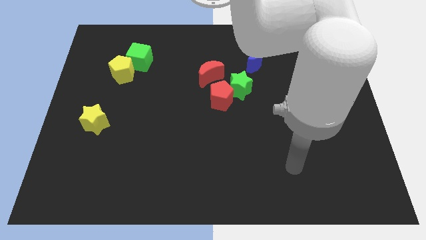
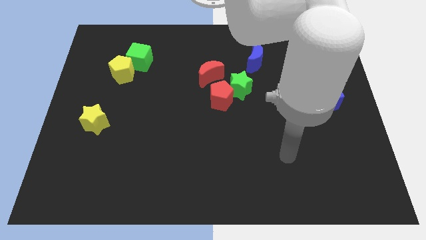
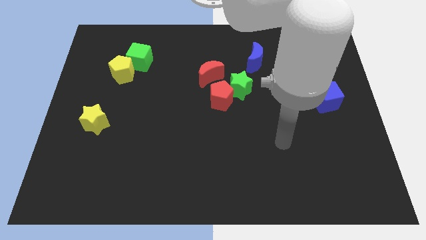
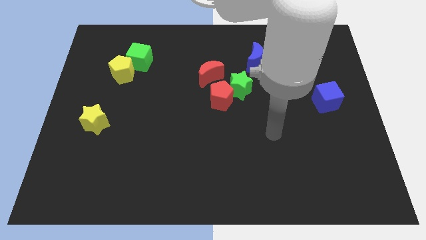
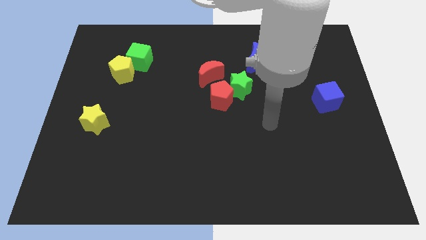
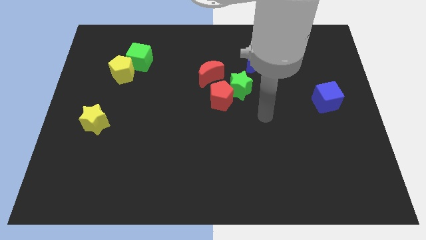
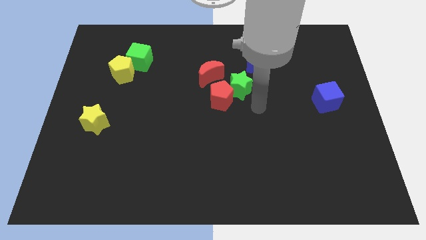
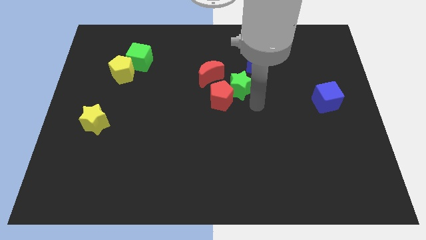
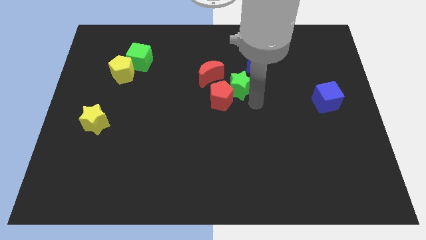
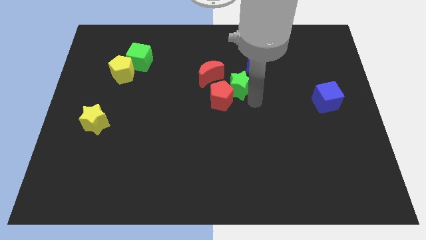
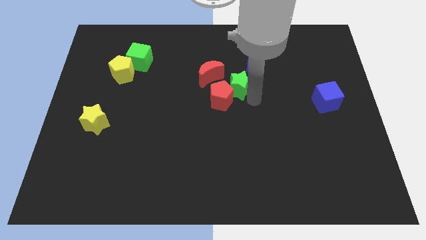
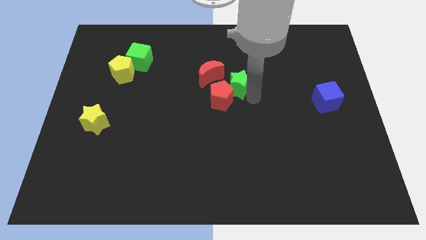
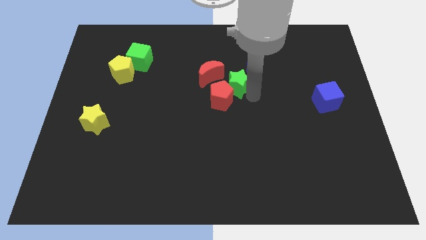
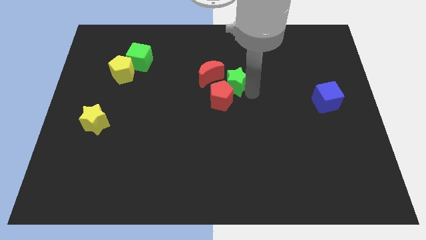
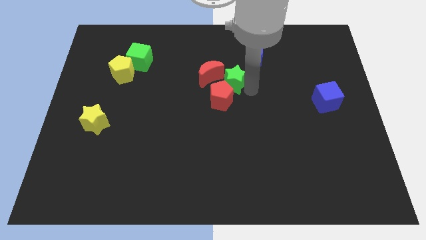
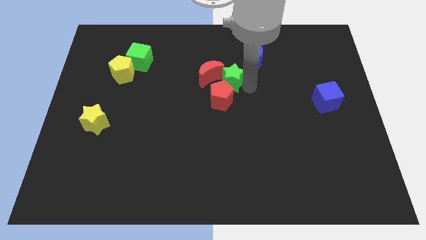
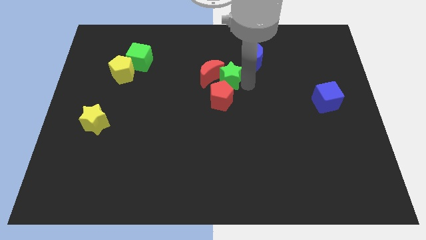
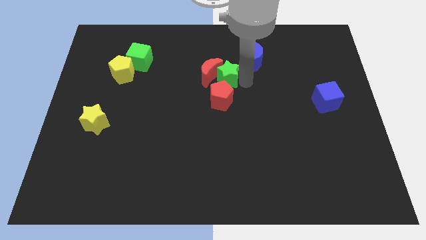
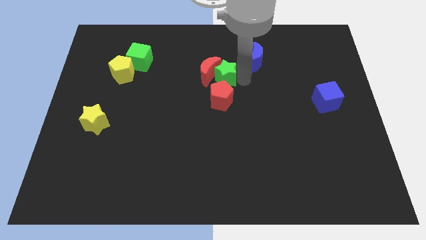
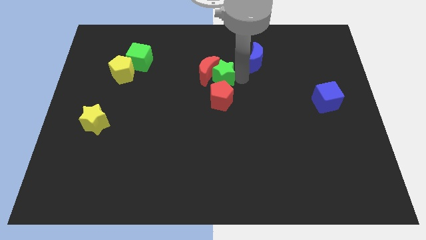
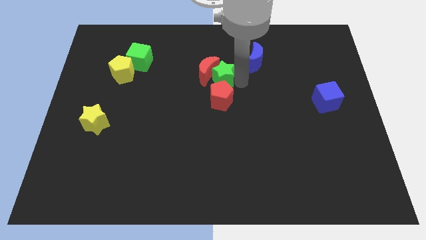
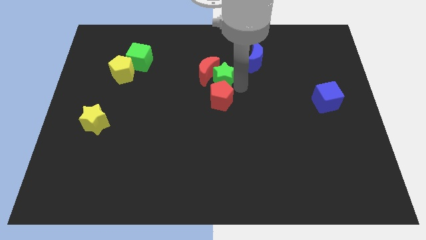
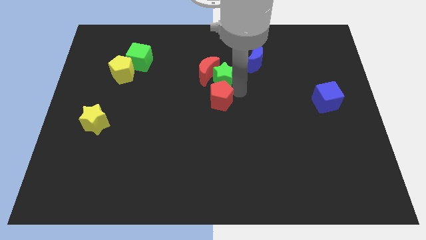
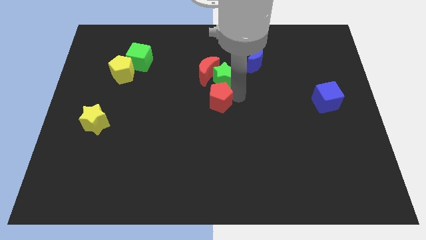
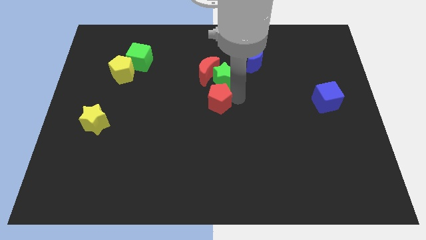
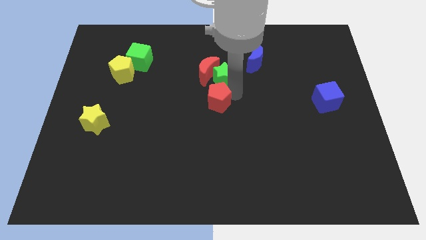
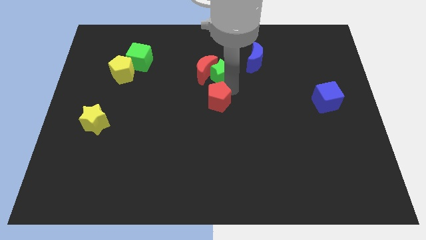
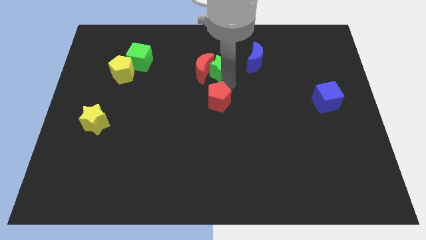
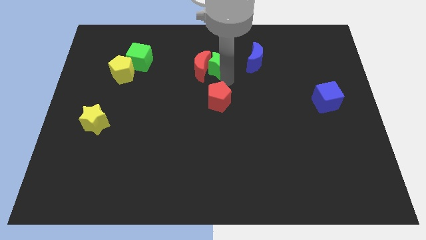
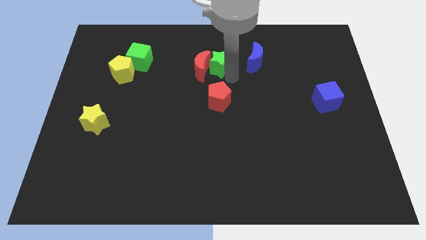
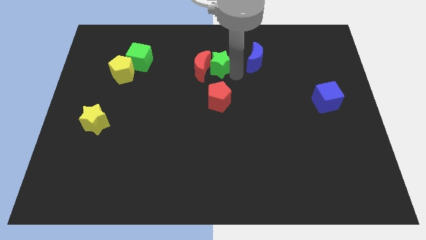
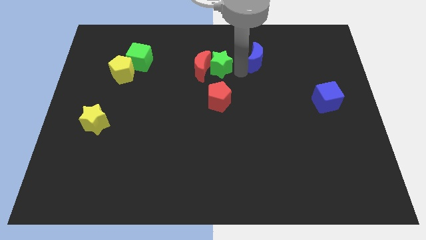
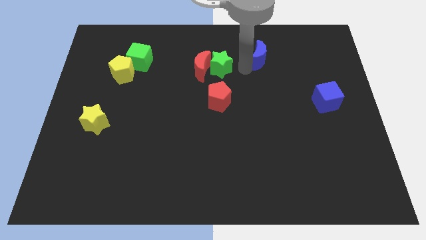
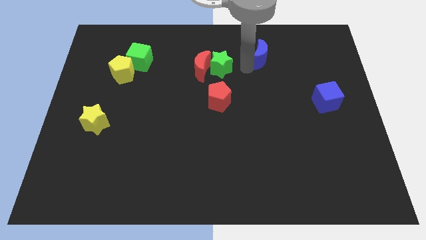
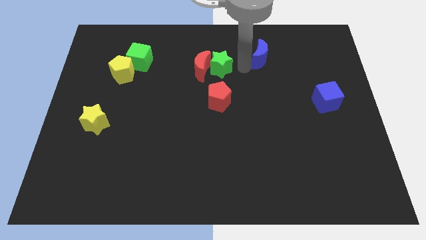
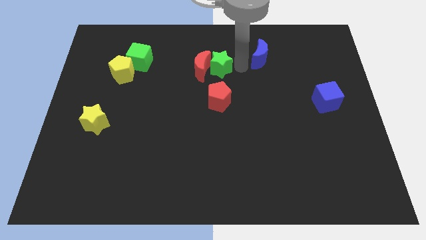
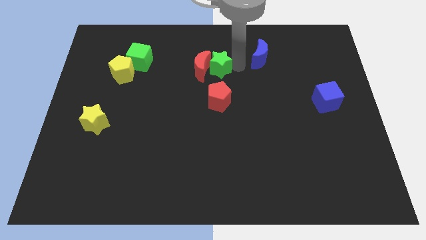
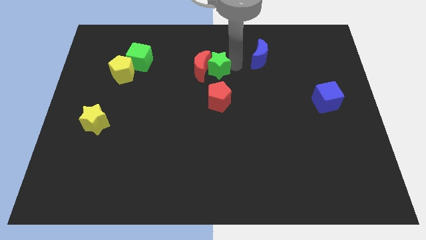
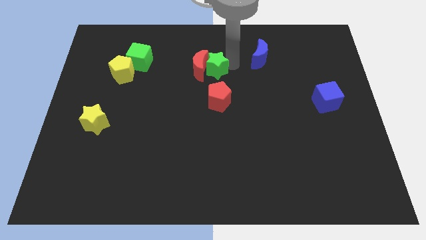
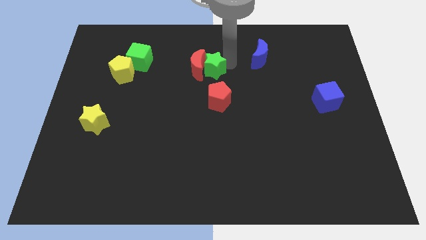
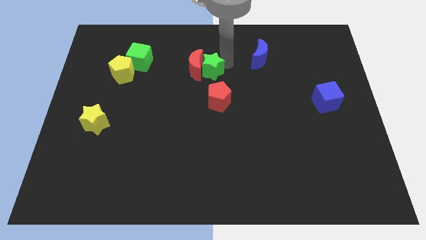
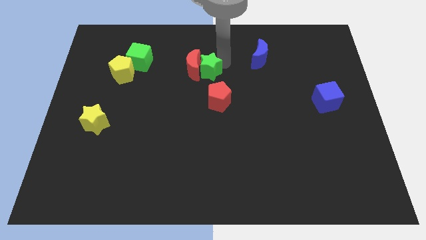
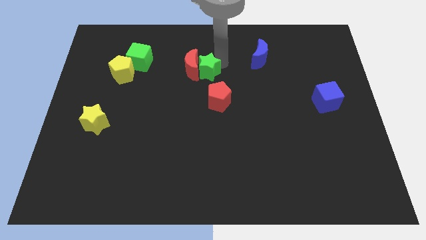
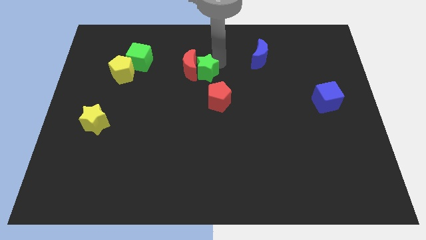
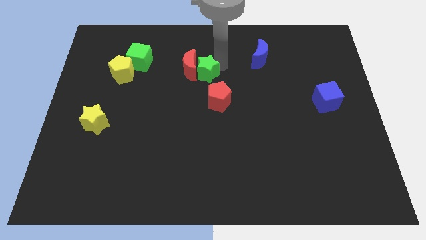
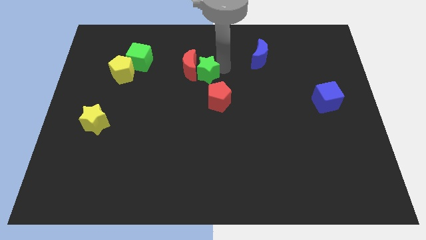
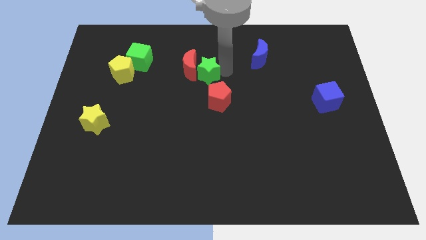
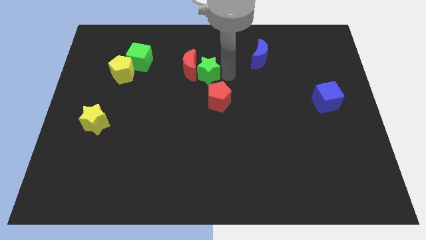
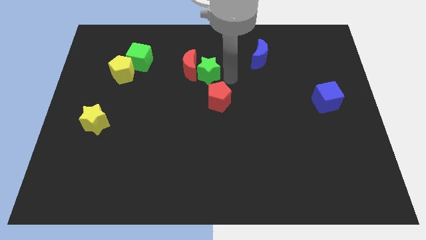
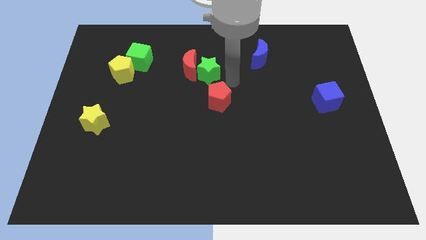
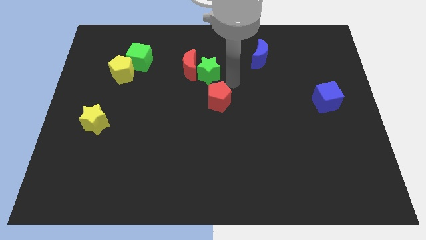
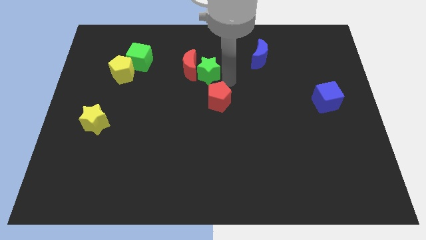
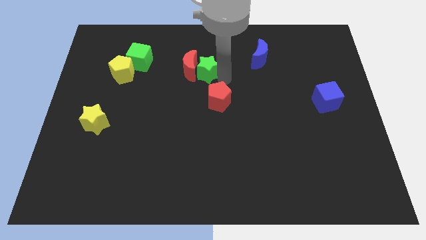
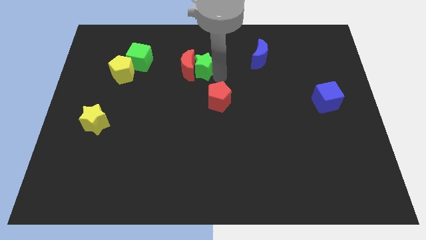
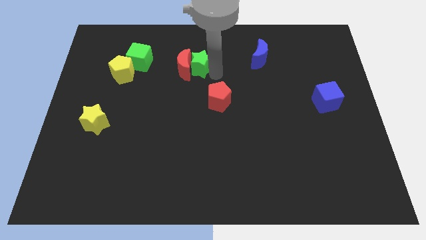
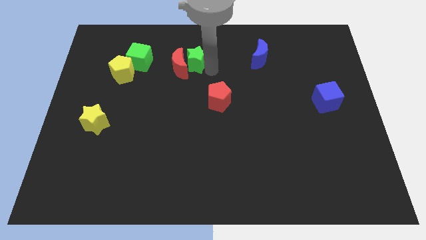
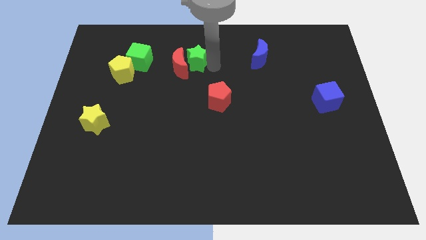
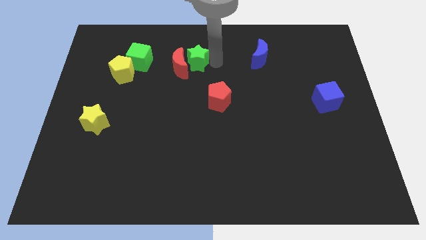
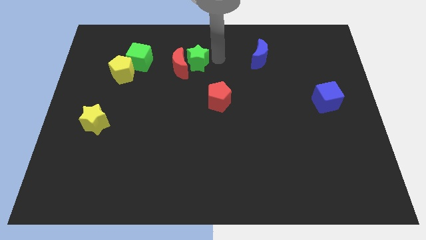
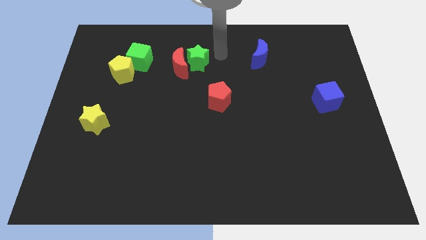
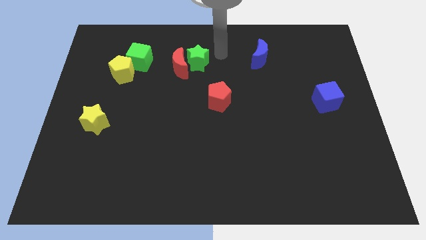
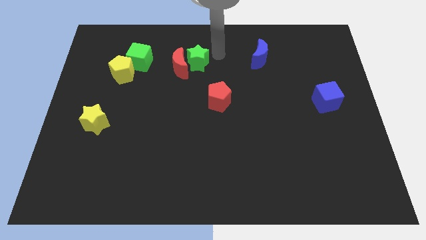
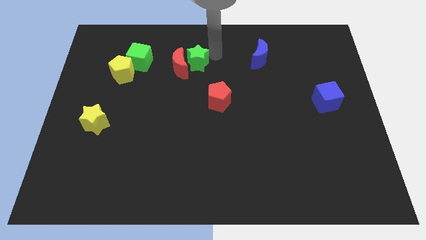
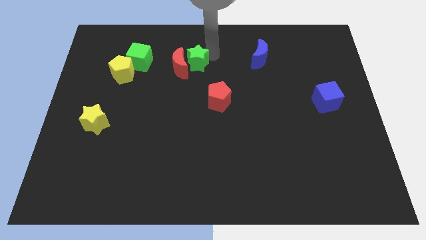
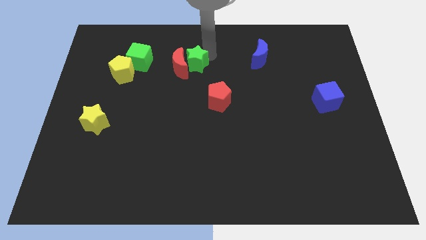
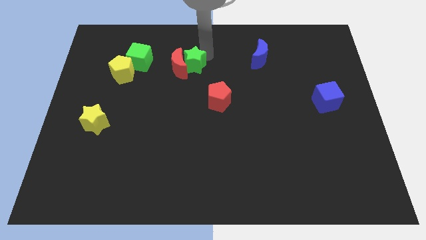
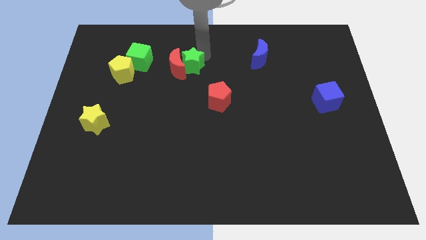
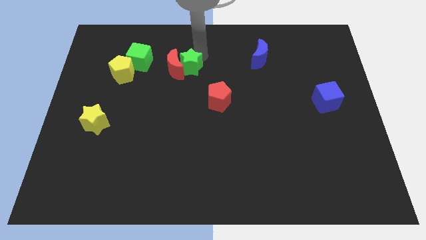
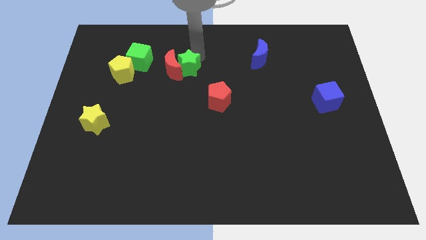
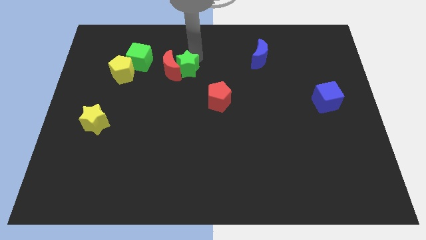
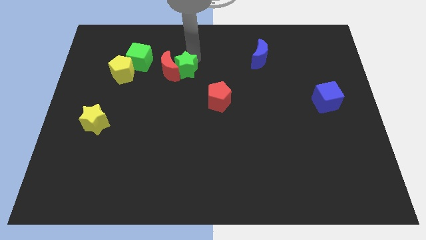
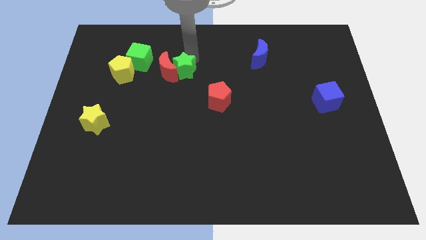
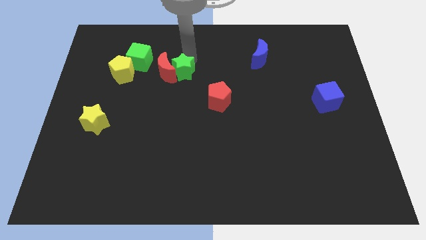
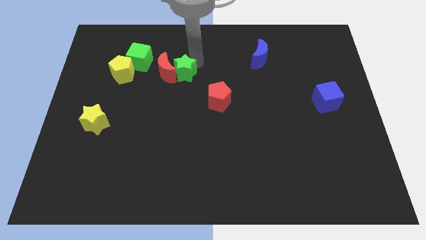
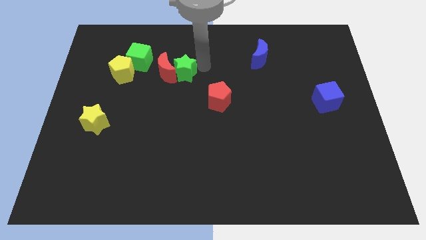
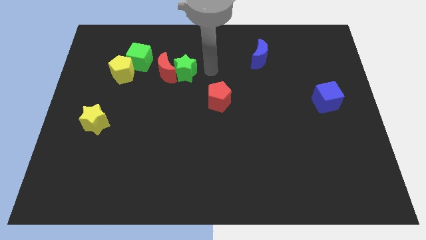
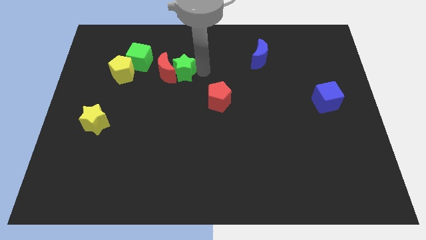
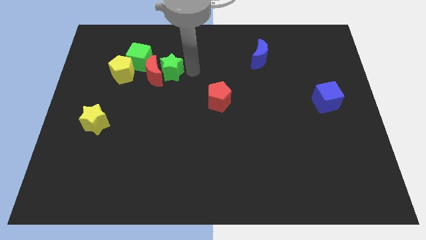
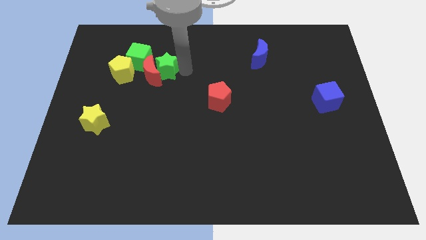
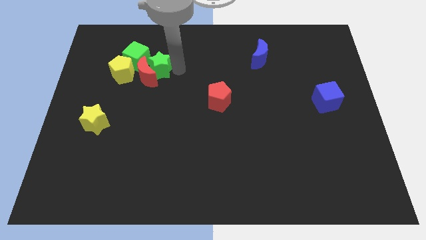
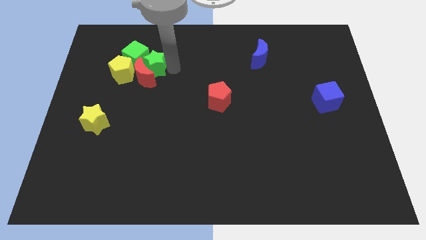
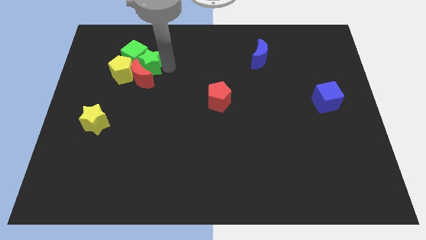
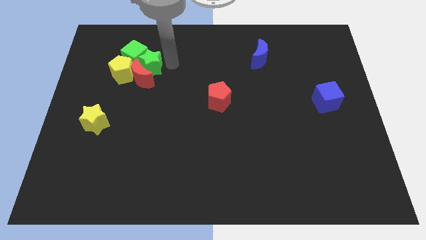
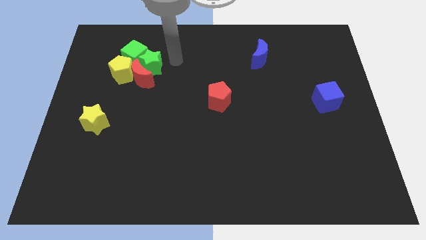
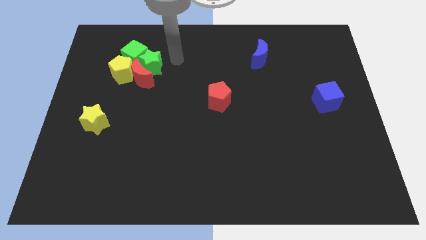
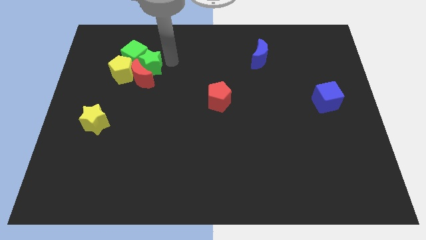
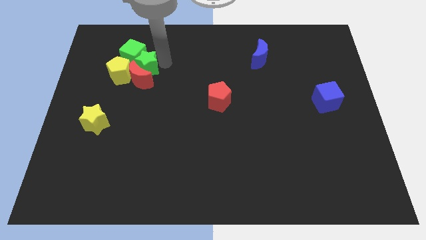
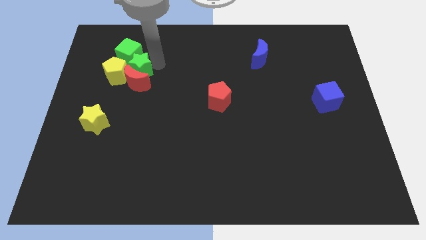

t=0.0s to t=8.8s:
put the green star towards the yellow pentagon
